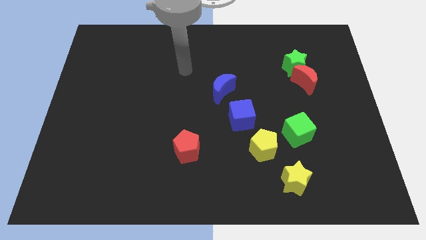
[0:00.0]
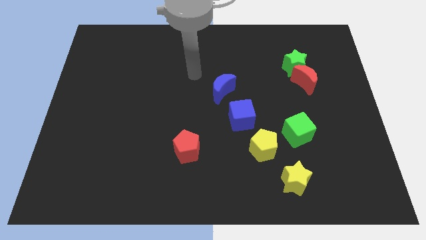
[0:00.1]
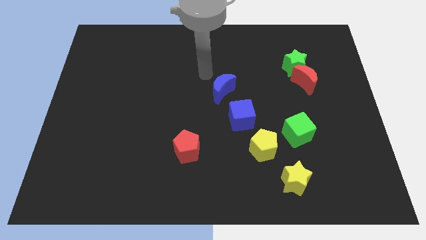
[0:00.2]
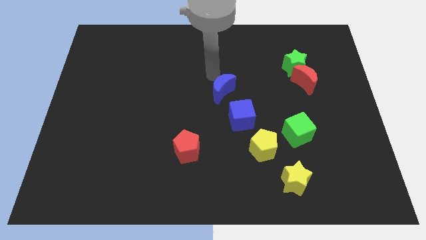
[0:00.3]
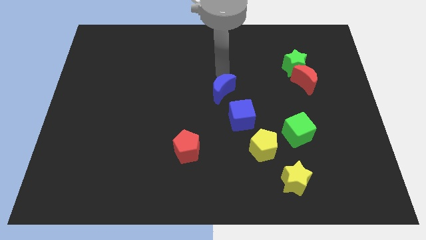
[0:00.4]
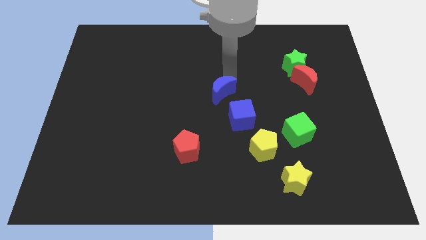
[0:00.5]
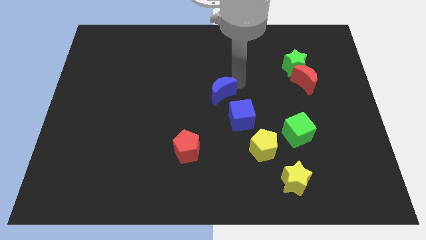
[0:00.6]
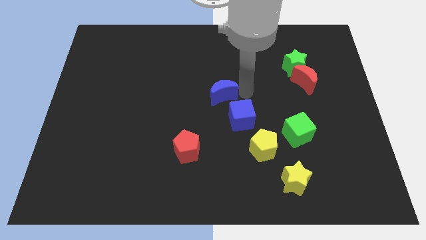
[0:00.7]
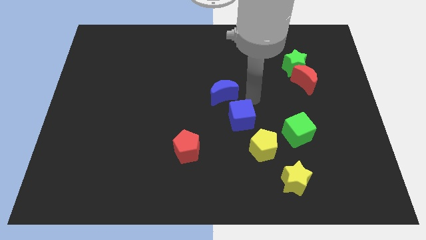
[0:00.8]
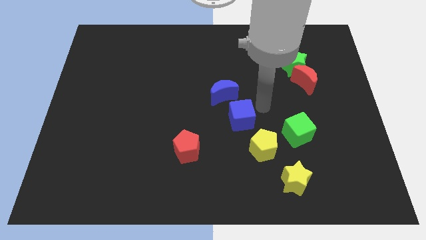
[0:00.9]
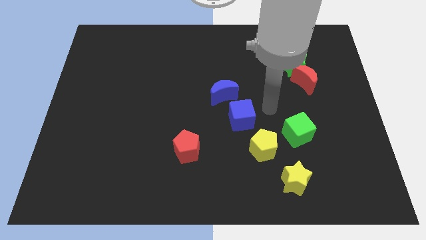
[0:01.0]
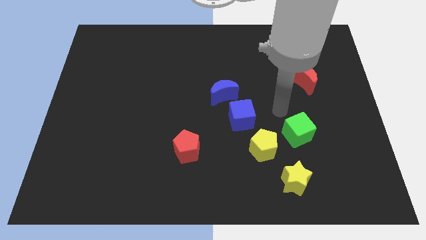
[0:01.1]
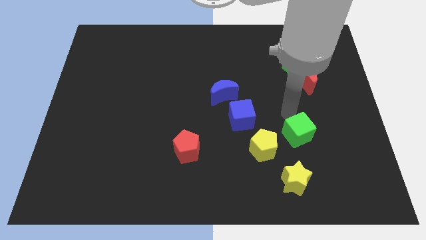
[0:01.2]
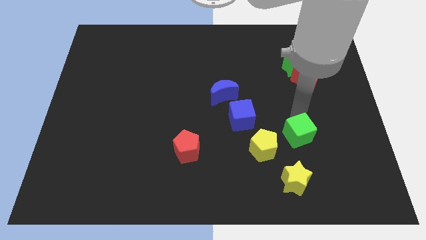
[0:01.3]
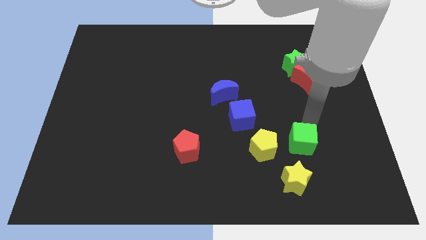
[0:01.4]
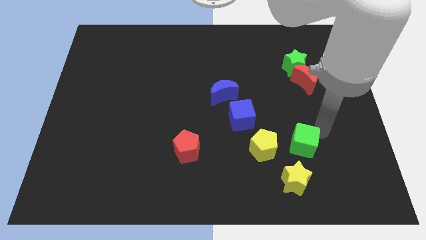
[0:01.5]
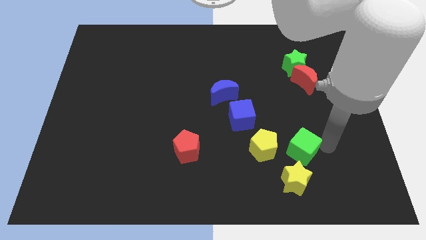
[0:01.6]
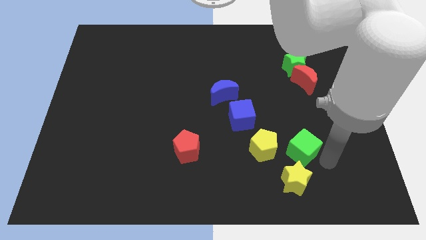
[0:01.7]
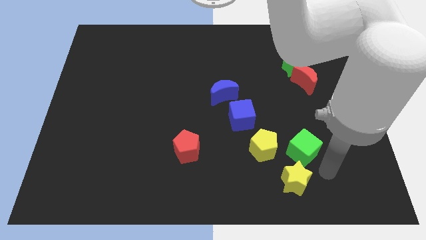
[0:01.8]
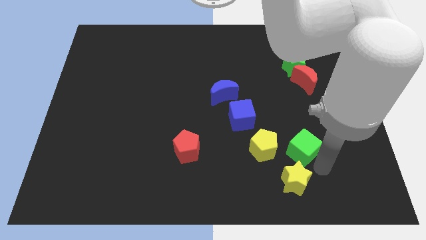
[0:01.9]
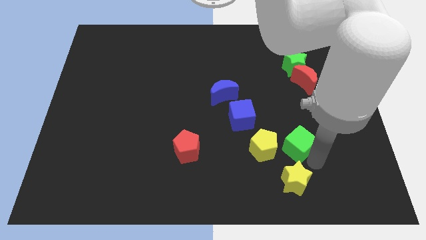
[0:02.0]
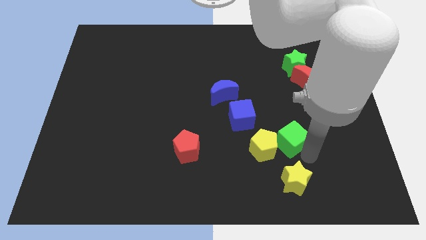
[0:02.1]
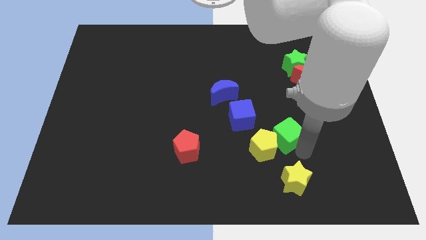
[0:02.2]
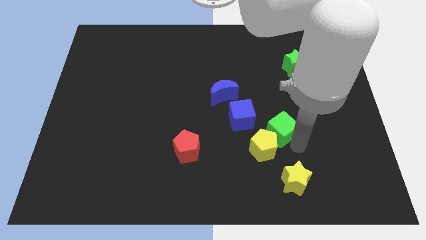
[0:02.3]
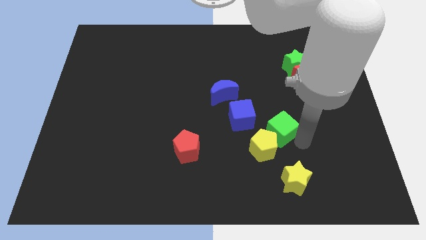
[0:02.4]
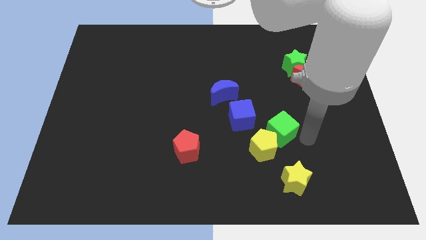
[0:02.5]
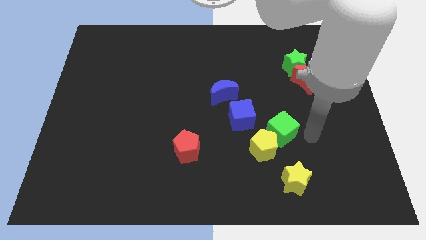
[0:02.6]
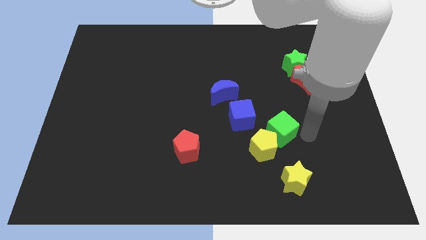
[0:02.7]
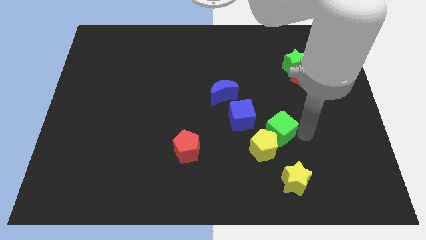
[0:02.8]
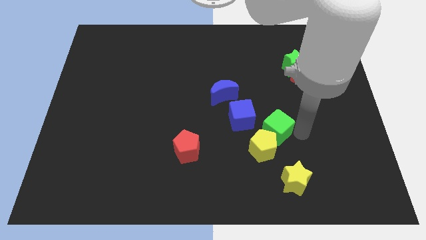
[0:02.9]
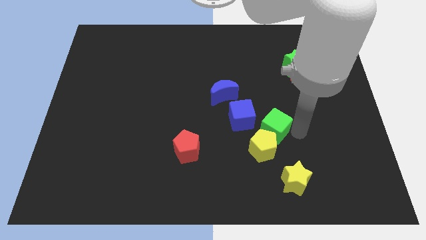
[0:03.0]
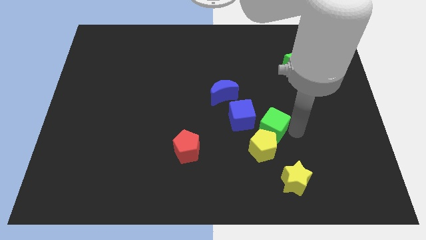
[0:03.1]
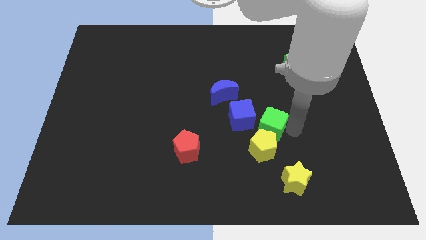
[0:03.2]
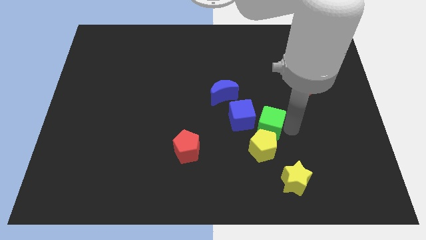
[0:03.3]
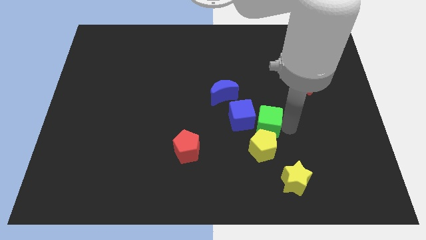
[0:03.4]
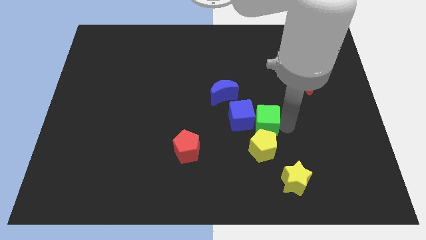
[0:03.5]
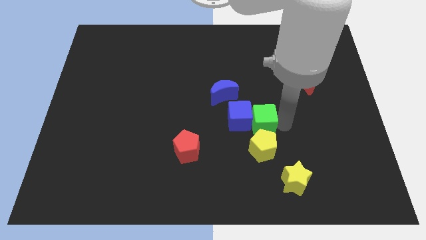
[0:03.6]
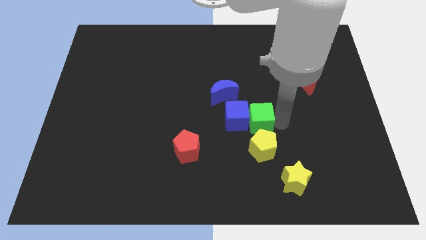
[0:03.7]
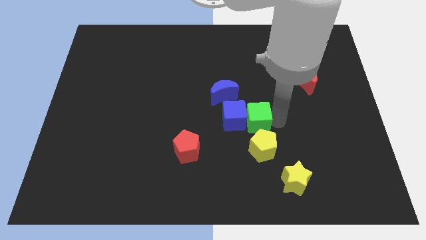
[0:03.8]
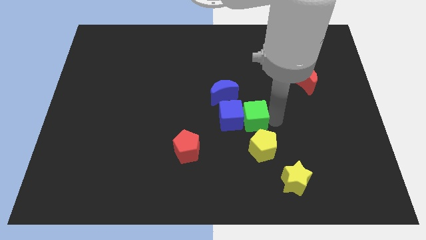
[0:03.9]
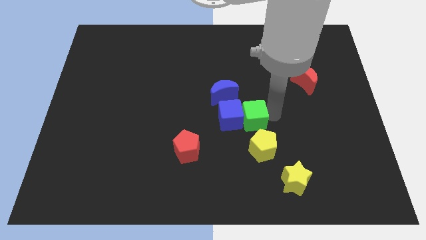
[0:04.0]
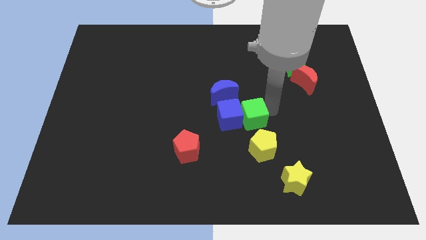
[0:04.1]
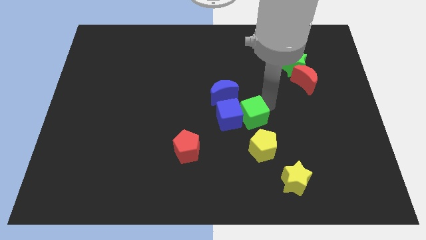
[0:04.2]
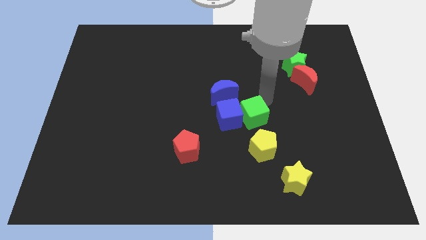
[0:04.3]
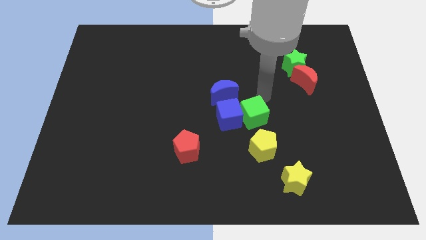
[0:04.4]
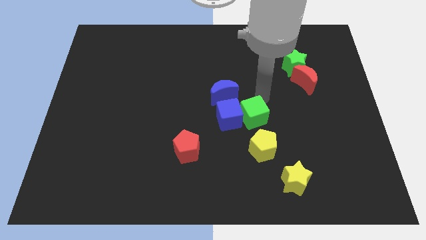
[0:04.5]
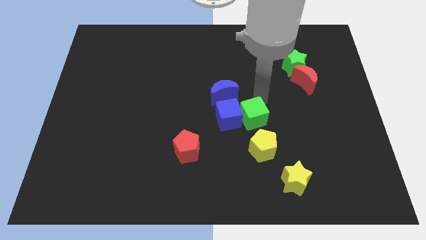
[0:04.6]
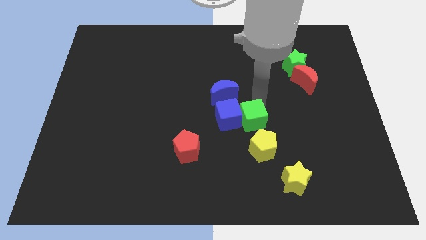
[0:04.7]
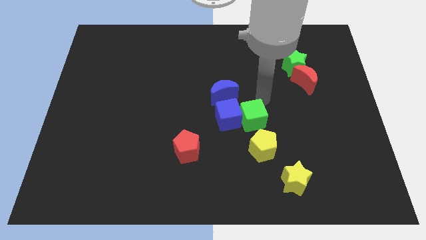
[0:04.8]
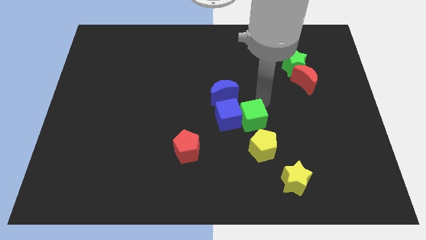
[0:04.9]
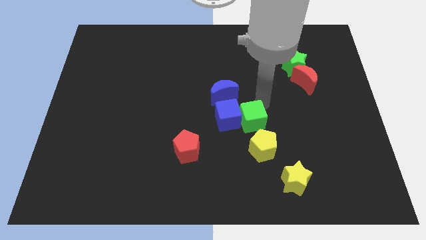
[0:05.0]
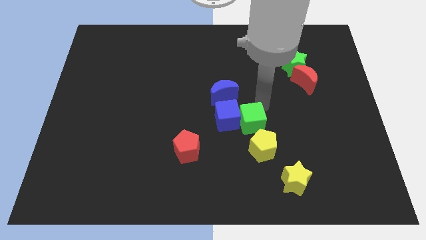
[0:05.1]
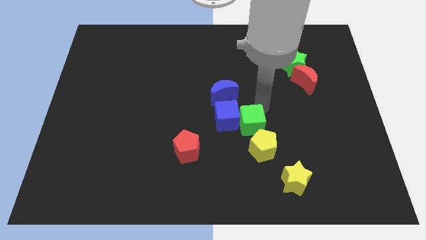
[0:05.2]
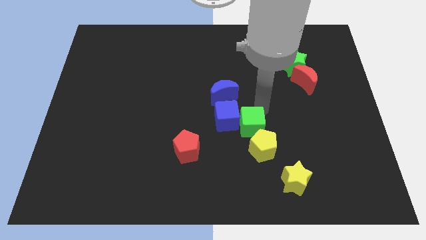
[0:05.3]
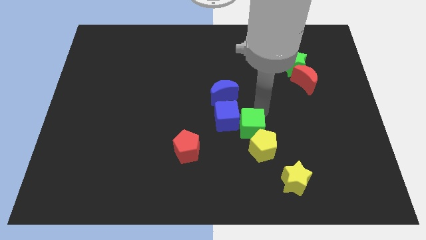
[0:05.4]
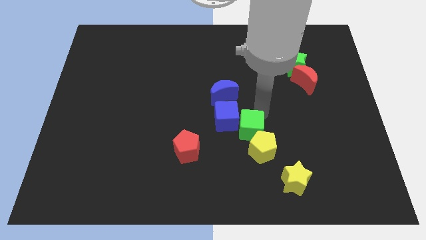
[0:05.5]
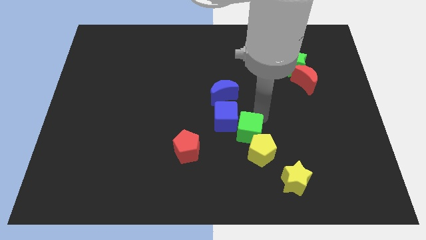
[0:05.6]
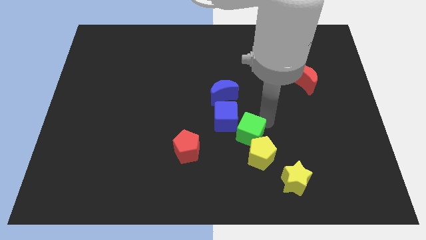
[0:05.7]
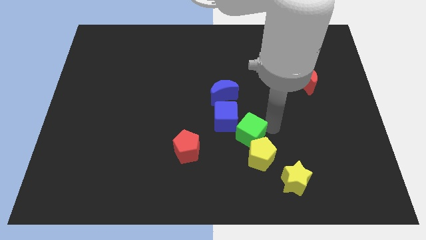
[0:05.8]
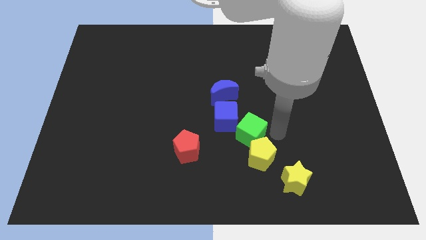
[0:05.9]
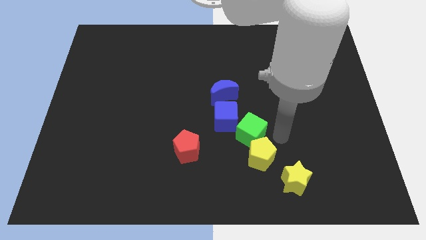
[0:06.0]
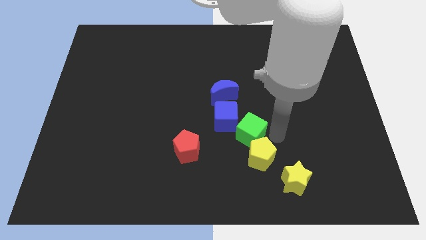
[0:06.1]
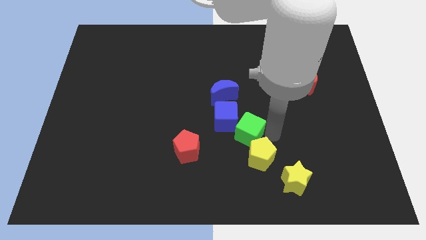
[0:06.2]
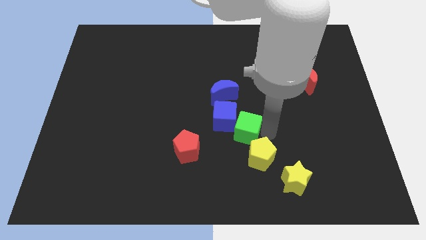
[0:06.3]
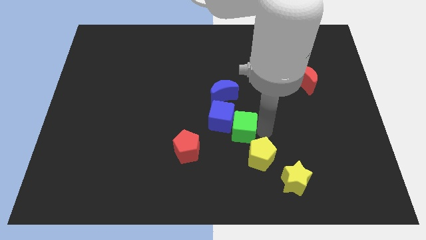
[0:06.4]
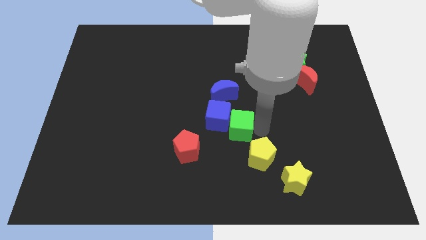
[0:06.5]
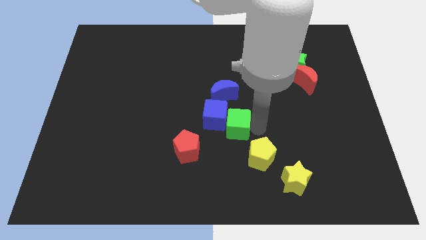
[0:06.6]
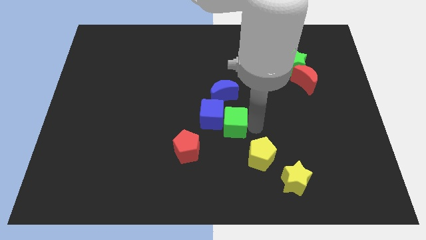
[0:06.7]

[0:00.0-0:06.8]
slide the green cube diagonally up and to the right of the red pentagon
